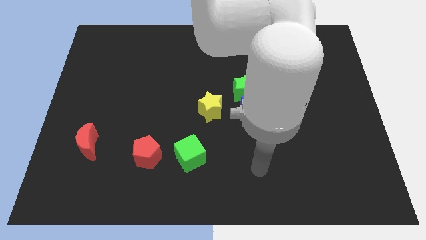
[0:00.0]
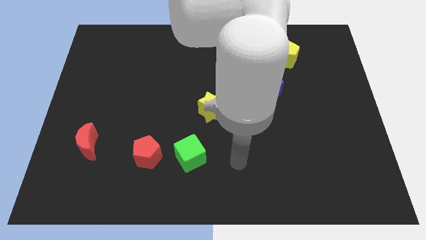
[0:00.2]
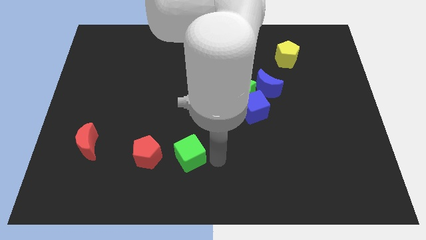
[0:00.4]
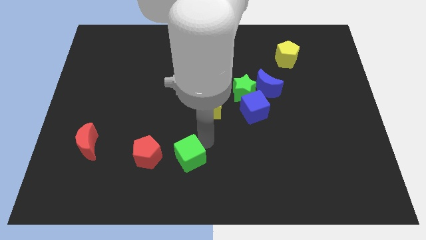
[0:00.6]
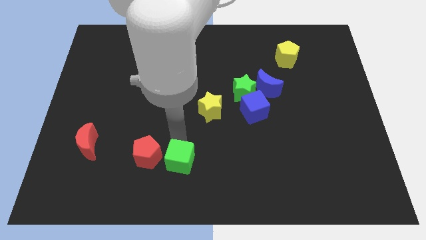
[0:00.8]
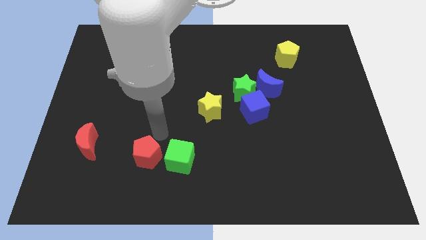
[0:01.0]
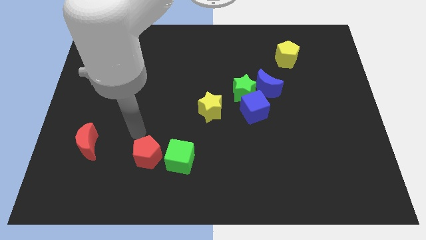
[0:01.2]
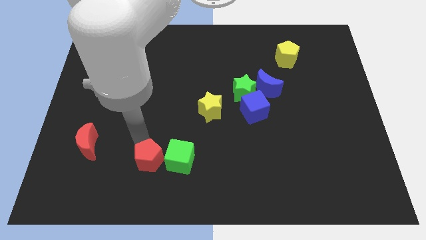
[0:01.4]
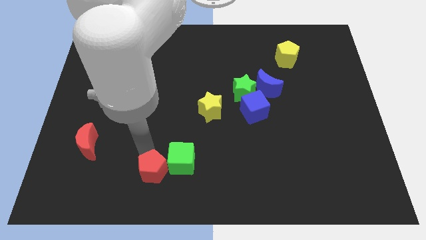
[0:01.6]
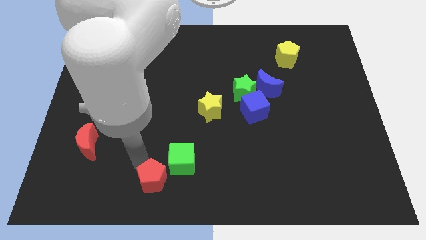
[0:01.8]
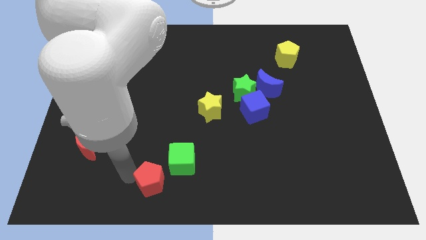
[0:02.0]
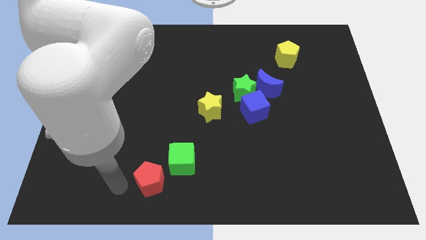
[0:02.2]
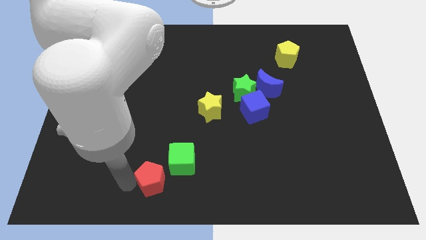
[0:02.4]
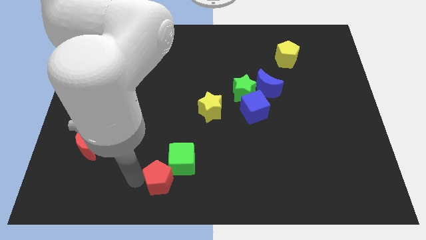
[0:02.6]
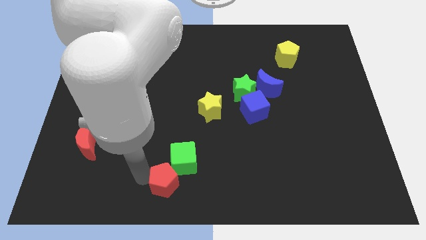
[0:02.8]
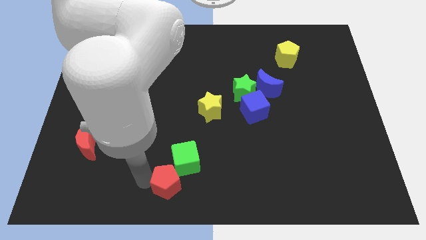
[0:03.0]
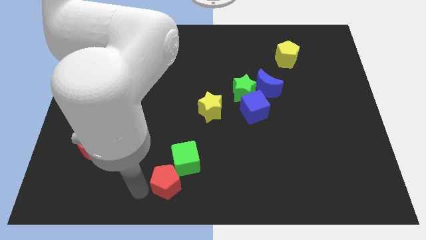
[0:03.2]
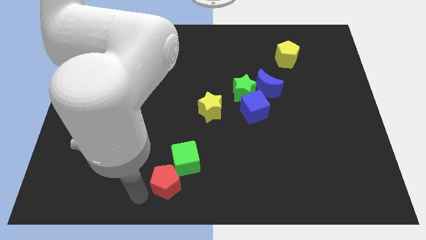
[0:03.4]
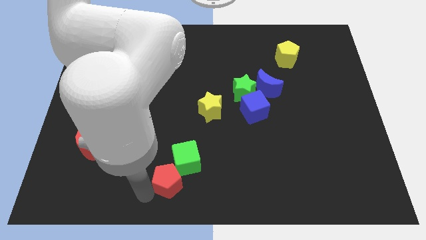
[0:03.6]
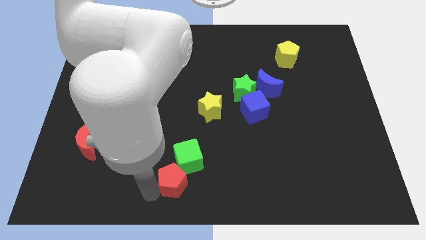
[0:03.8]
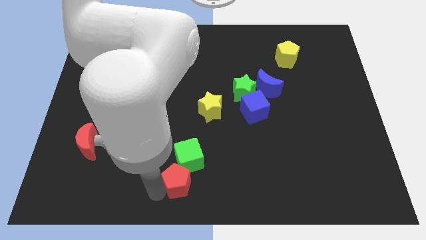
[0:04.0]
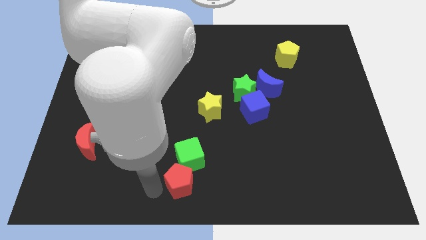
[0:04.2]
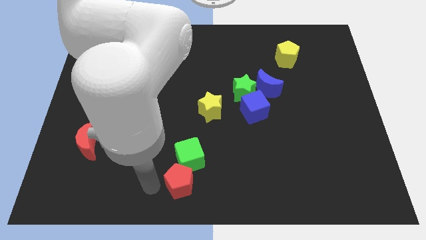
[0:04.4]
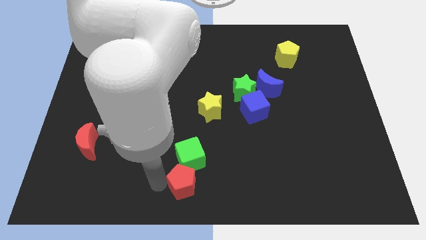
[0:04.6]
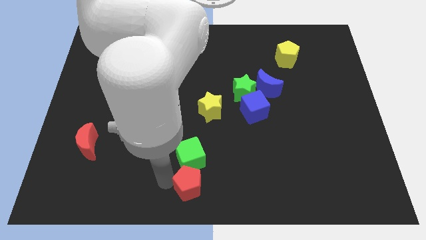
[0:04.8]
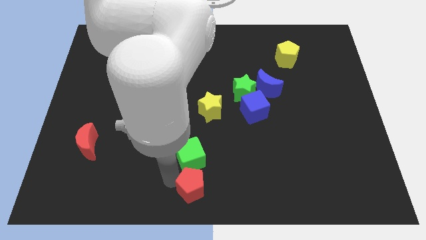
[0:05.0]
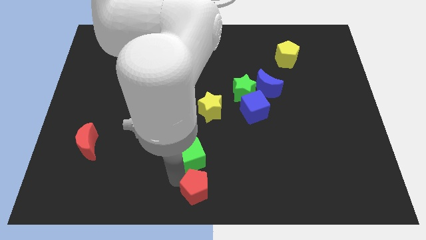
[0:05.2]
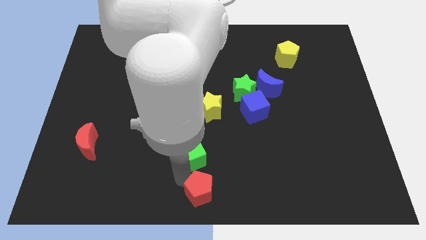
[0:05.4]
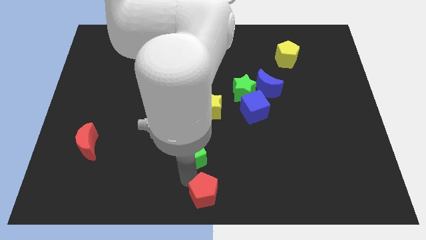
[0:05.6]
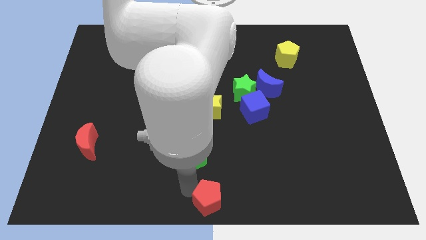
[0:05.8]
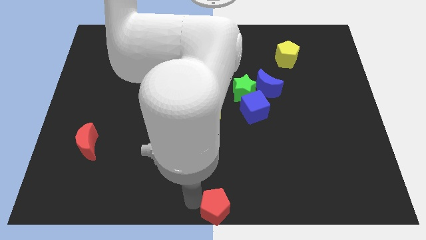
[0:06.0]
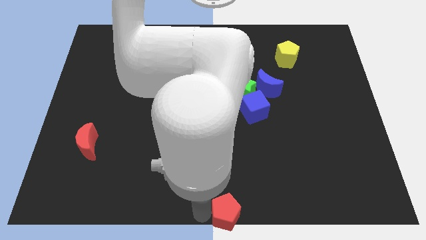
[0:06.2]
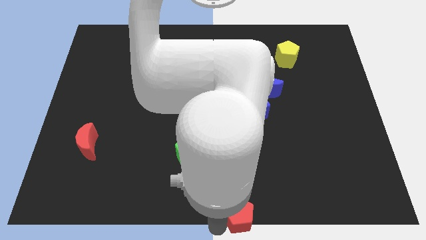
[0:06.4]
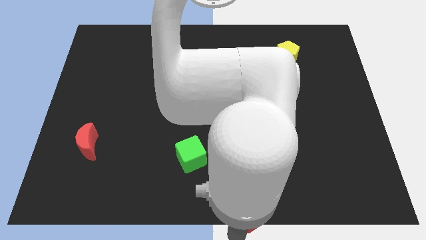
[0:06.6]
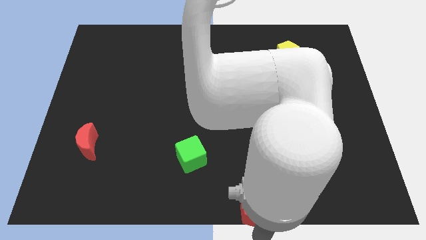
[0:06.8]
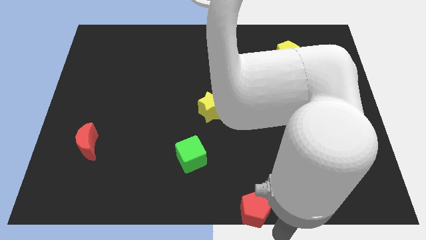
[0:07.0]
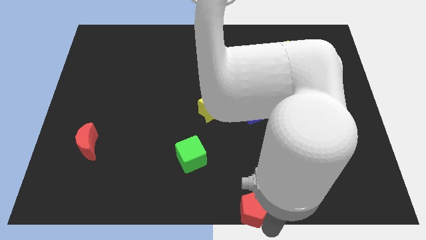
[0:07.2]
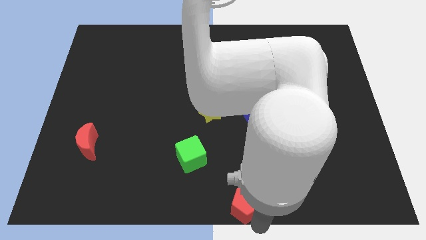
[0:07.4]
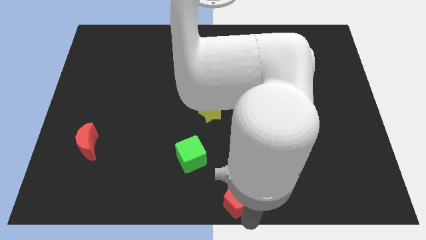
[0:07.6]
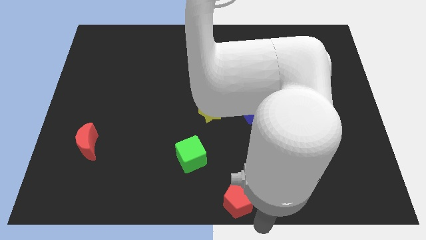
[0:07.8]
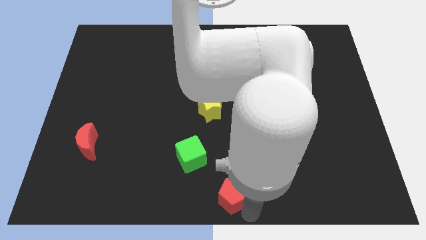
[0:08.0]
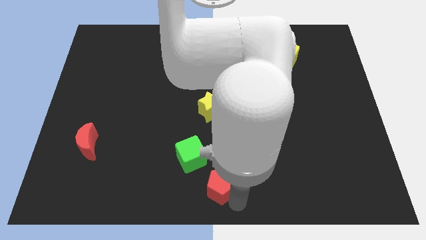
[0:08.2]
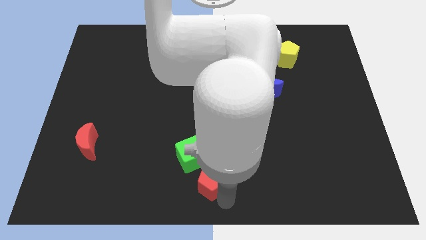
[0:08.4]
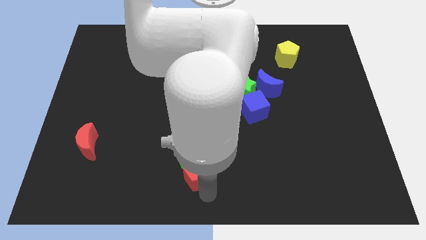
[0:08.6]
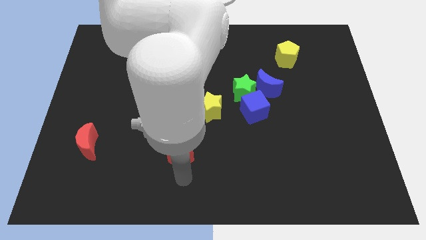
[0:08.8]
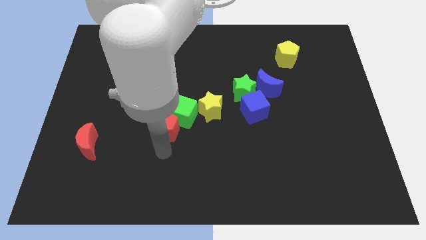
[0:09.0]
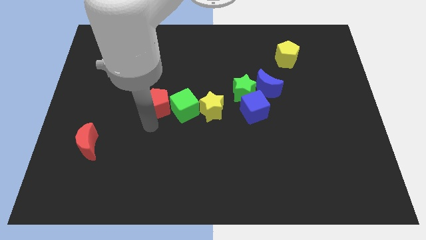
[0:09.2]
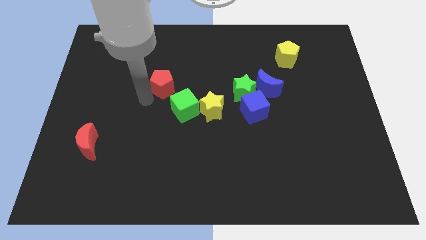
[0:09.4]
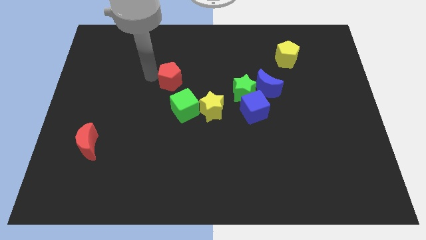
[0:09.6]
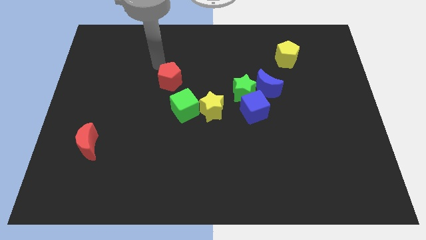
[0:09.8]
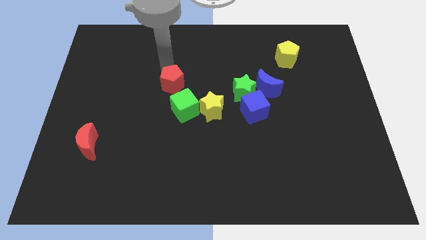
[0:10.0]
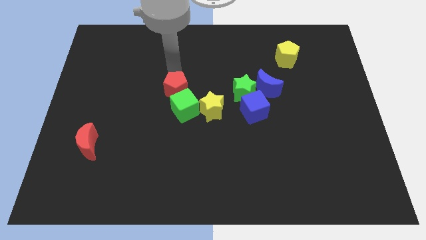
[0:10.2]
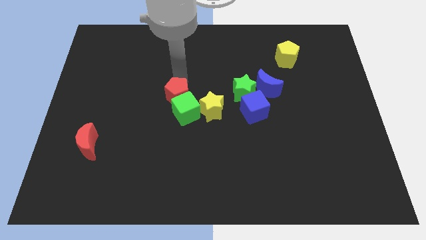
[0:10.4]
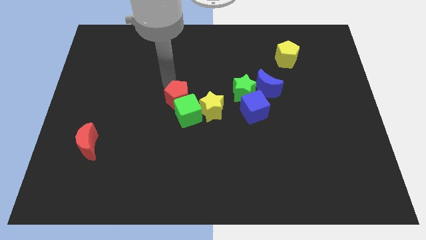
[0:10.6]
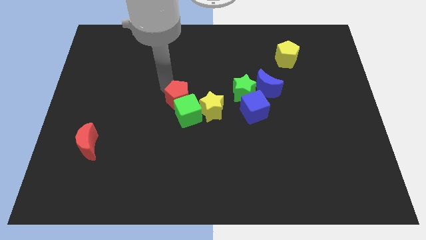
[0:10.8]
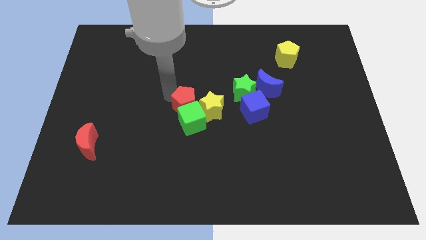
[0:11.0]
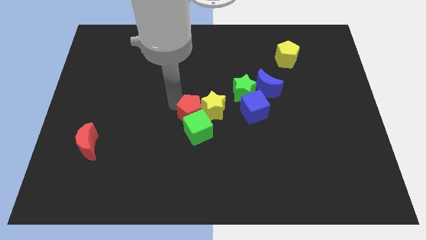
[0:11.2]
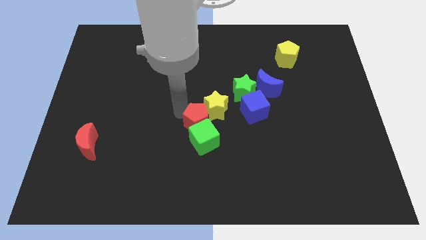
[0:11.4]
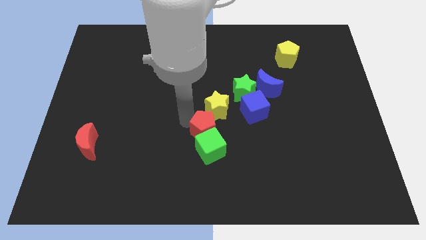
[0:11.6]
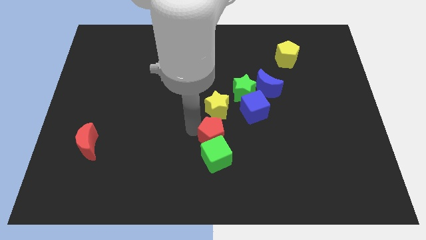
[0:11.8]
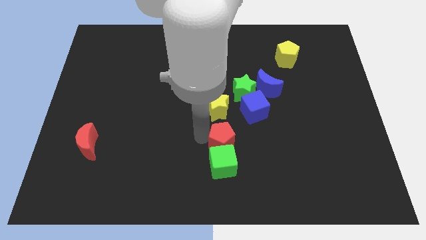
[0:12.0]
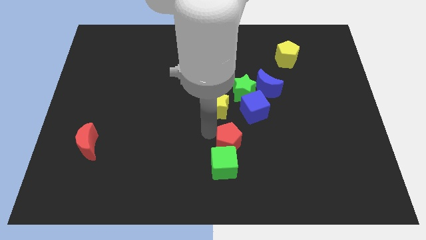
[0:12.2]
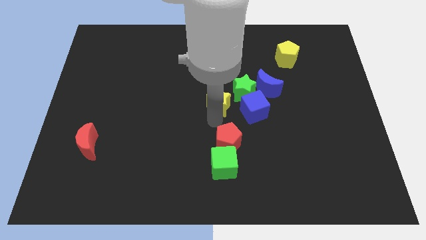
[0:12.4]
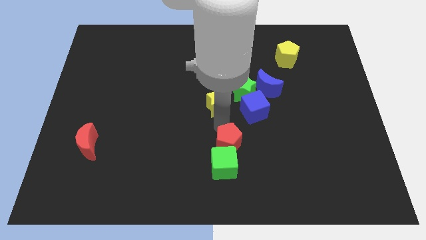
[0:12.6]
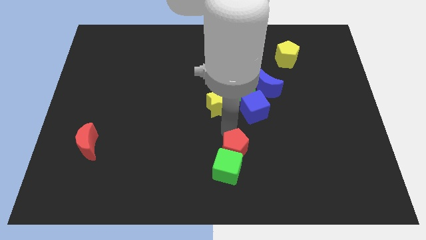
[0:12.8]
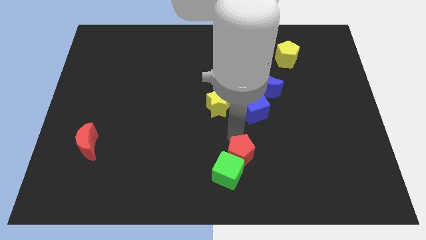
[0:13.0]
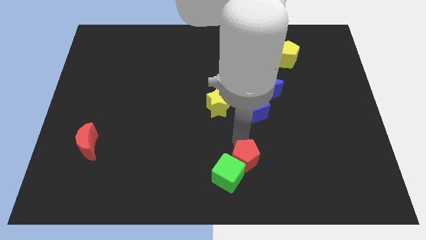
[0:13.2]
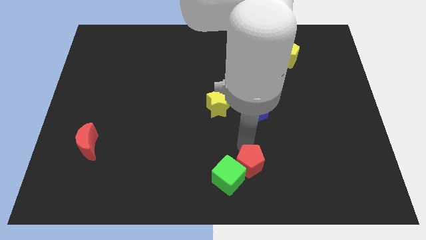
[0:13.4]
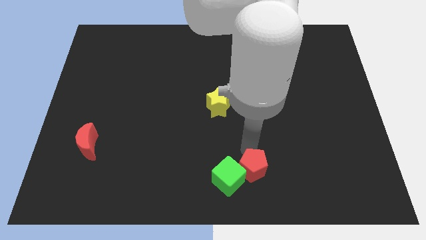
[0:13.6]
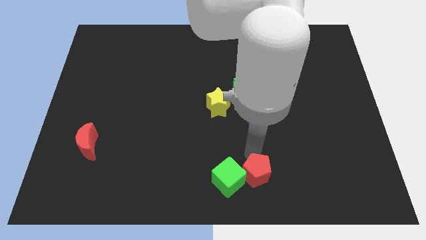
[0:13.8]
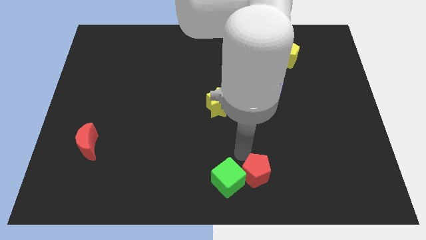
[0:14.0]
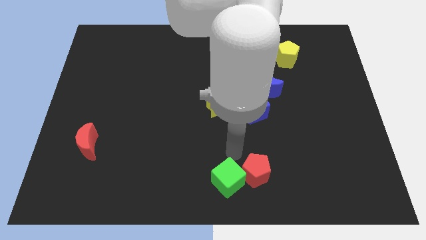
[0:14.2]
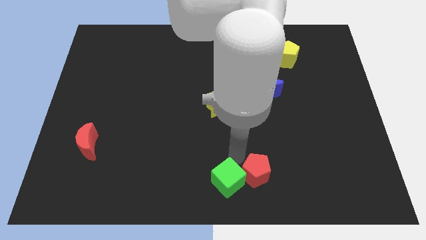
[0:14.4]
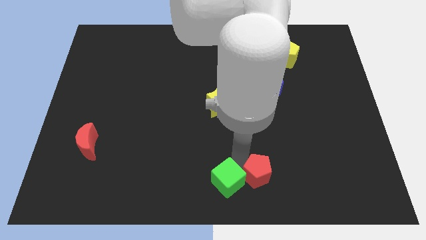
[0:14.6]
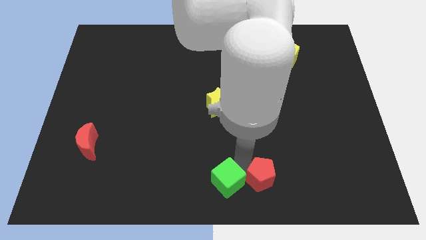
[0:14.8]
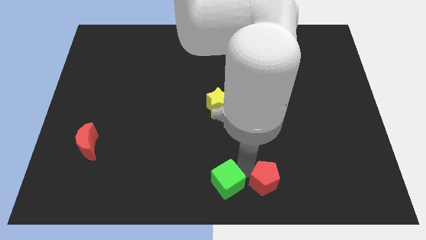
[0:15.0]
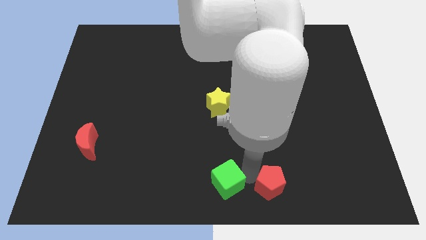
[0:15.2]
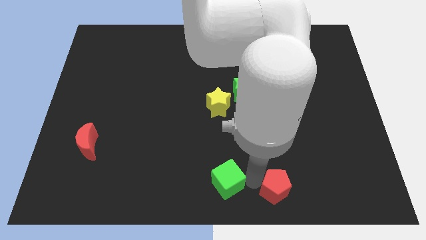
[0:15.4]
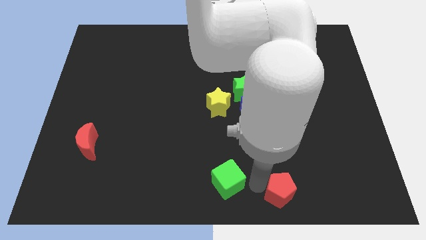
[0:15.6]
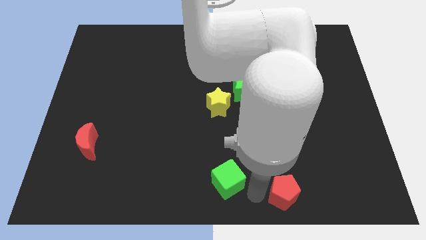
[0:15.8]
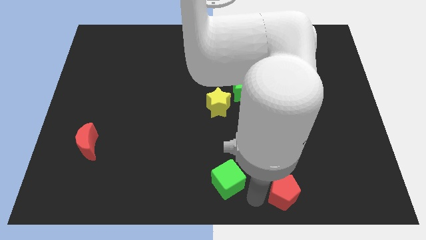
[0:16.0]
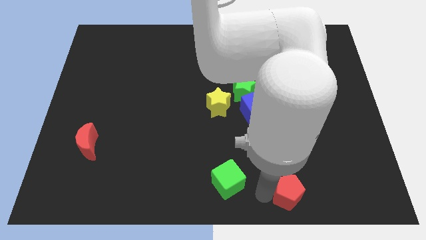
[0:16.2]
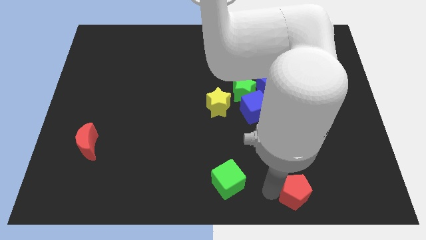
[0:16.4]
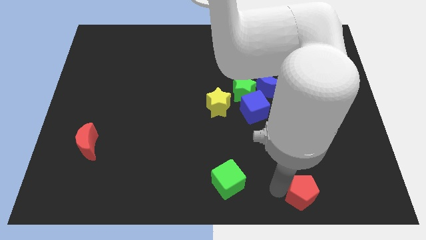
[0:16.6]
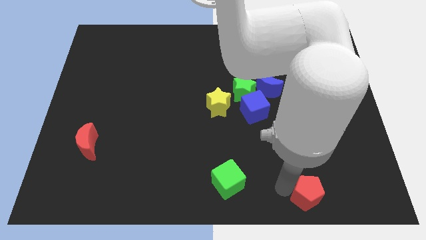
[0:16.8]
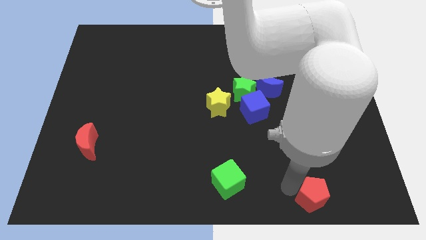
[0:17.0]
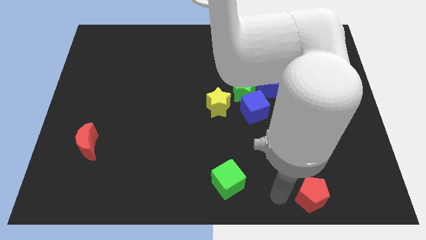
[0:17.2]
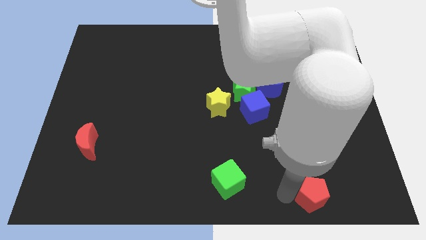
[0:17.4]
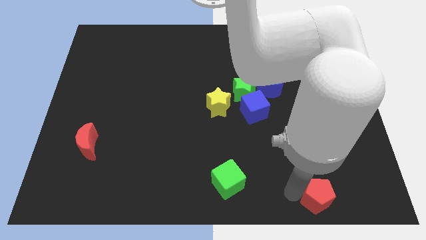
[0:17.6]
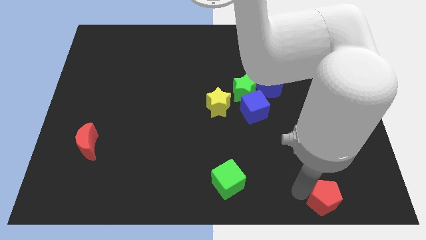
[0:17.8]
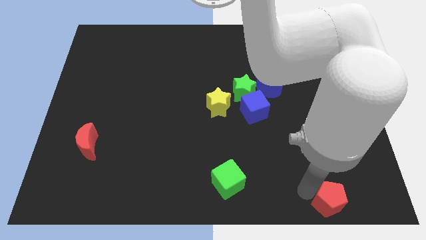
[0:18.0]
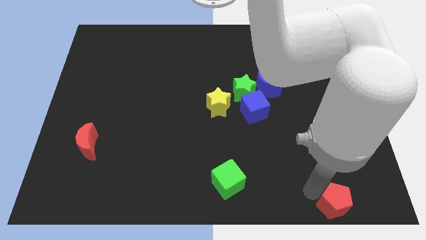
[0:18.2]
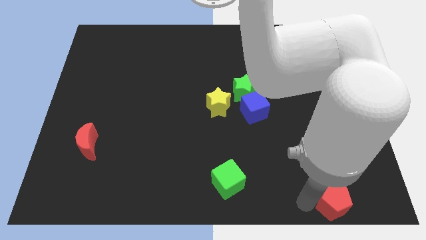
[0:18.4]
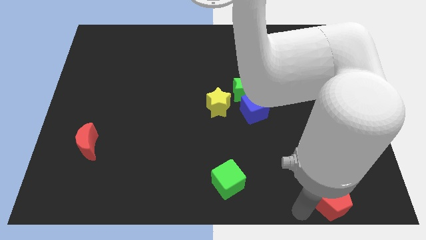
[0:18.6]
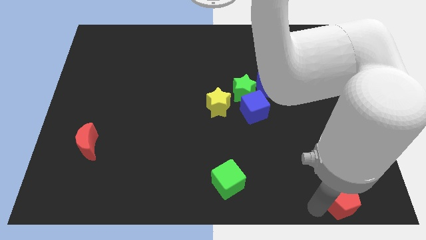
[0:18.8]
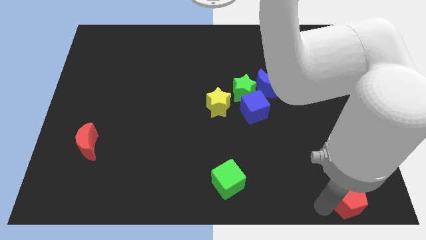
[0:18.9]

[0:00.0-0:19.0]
put the red pentagon to the bottom right corner
